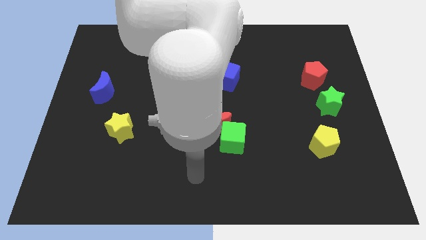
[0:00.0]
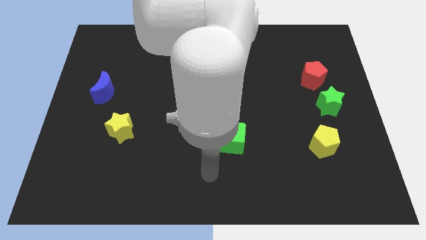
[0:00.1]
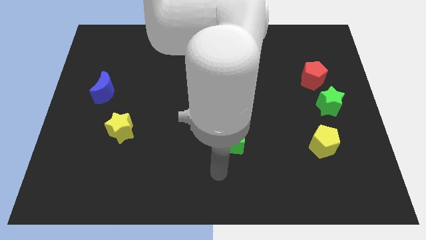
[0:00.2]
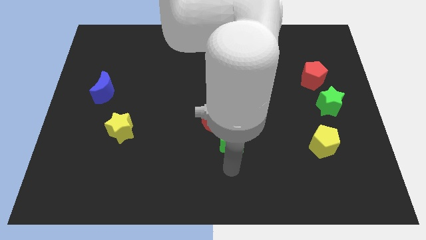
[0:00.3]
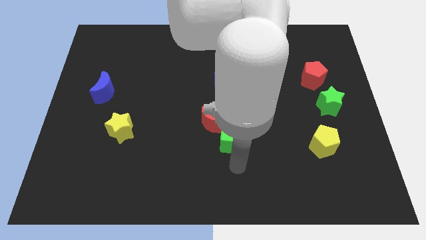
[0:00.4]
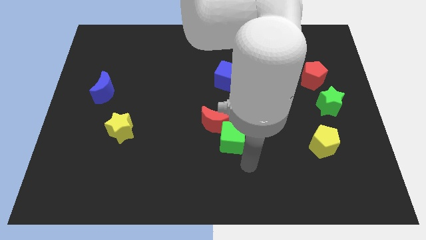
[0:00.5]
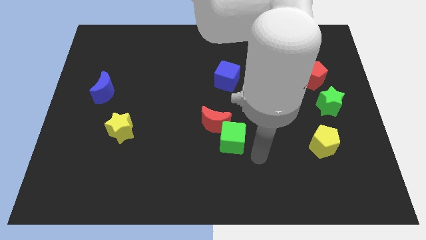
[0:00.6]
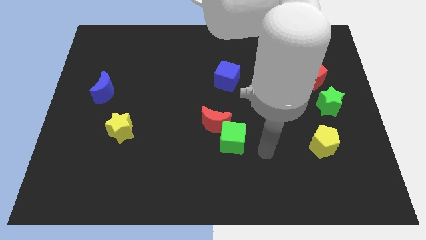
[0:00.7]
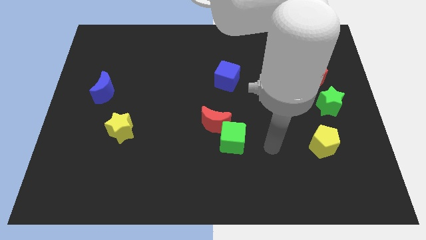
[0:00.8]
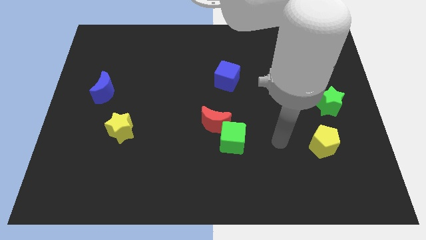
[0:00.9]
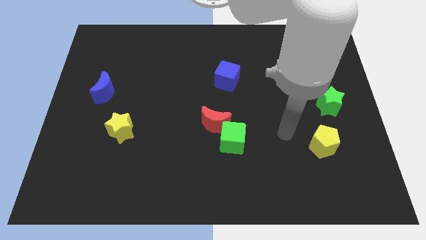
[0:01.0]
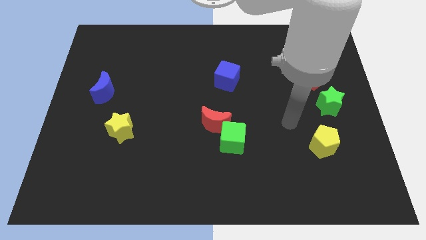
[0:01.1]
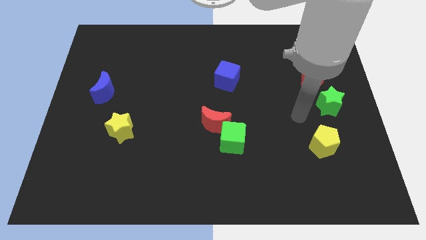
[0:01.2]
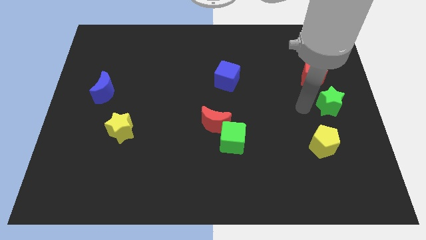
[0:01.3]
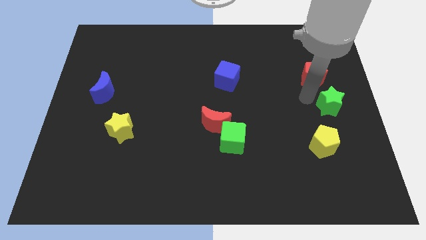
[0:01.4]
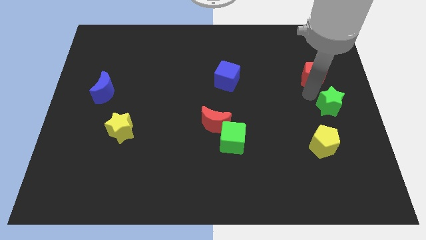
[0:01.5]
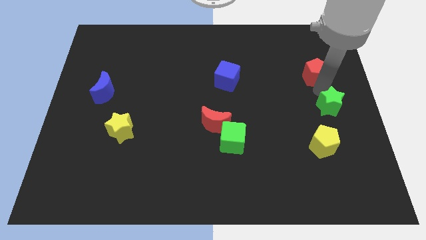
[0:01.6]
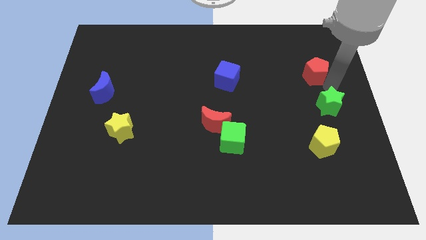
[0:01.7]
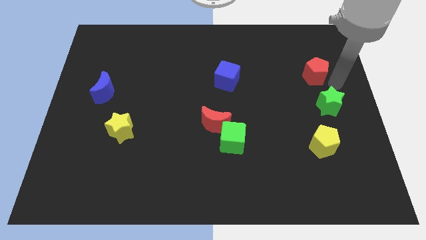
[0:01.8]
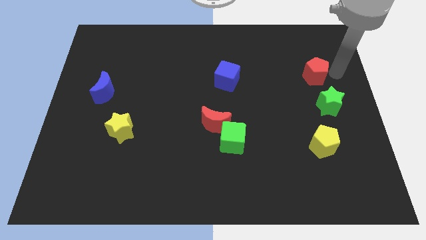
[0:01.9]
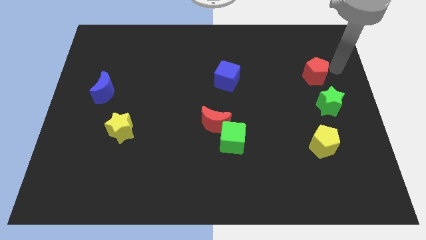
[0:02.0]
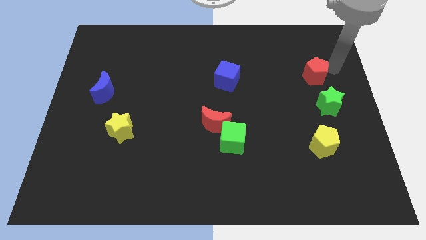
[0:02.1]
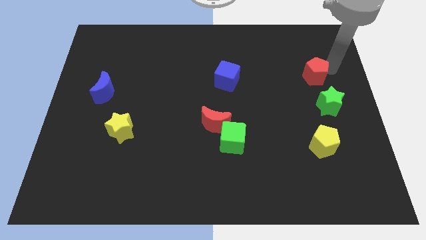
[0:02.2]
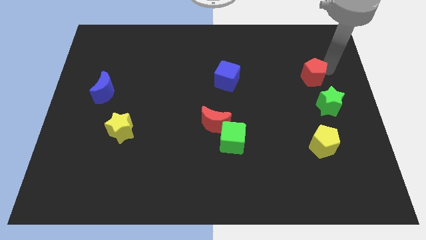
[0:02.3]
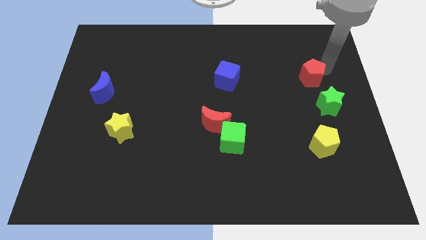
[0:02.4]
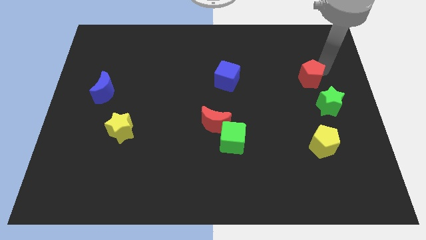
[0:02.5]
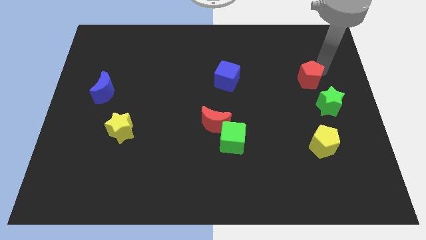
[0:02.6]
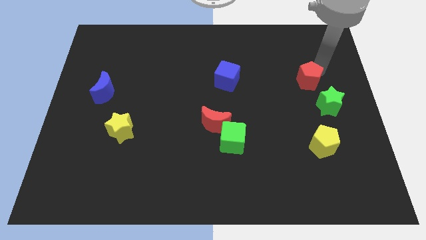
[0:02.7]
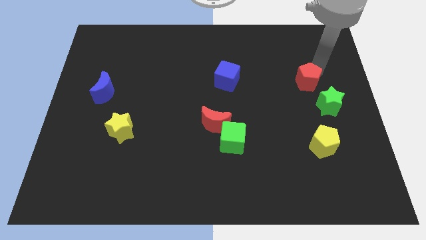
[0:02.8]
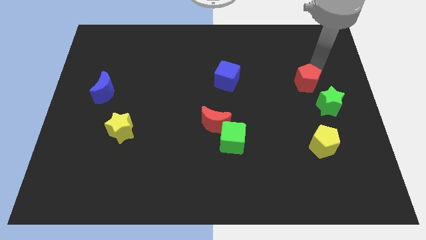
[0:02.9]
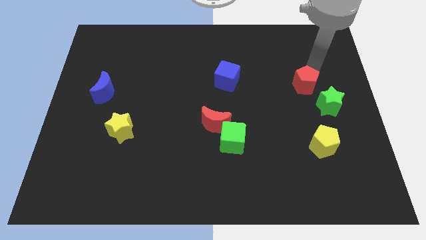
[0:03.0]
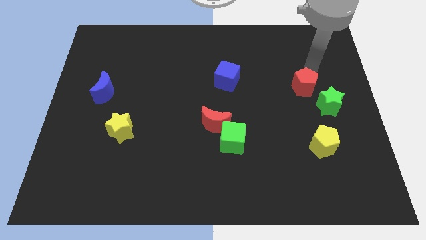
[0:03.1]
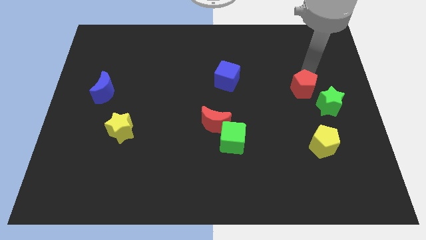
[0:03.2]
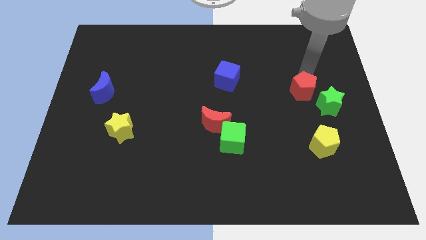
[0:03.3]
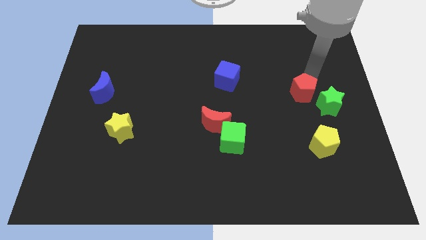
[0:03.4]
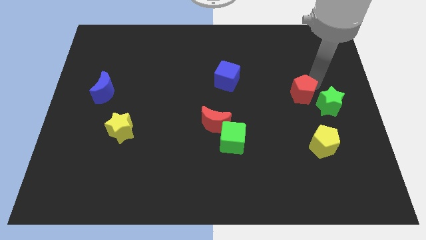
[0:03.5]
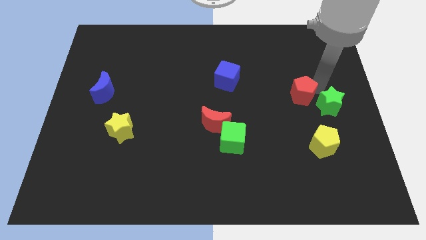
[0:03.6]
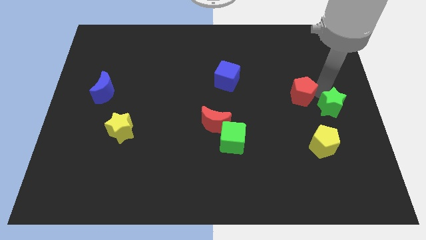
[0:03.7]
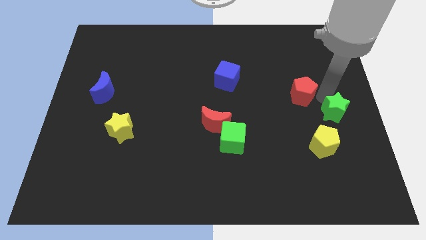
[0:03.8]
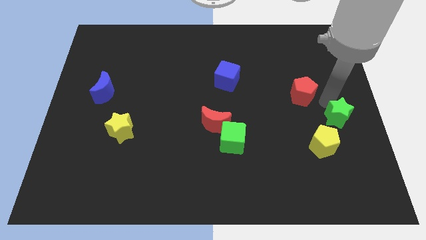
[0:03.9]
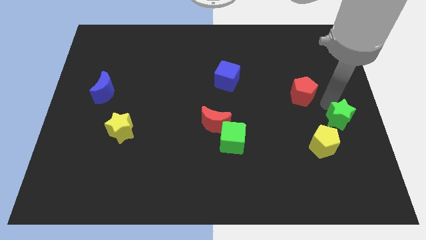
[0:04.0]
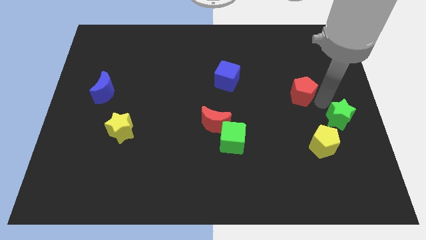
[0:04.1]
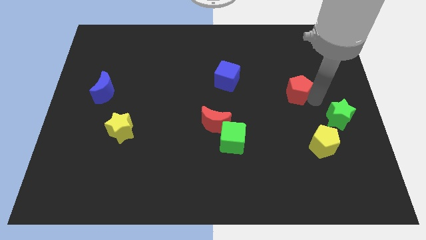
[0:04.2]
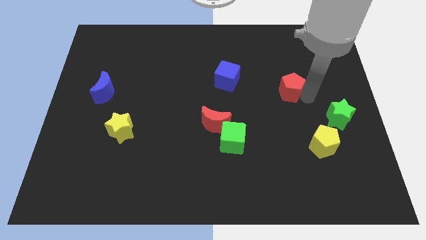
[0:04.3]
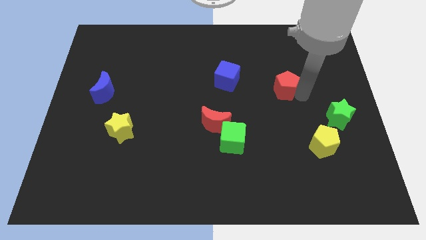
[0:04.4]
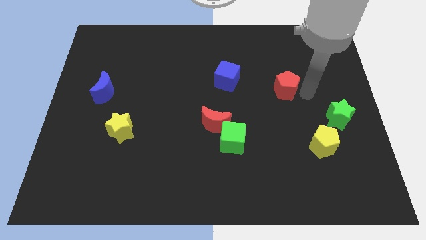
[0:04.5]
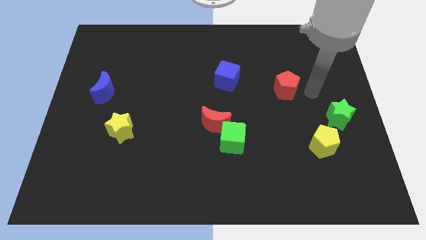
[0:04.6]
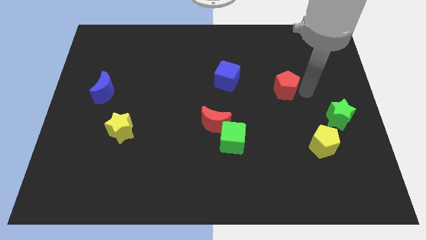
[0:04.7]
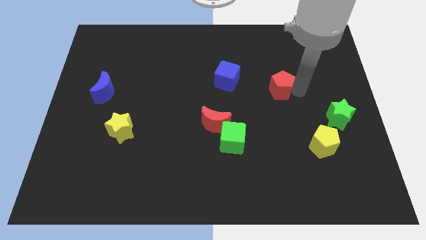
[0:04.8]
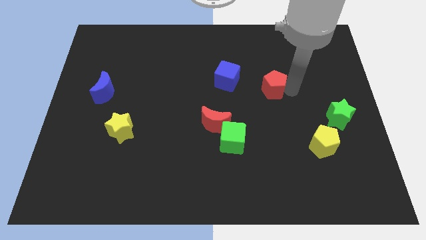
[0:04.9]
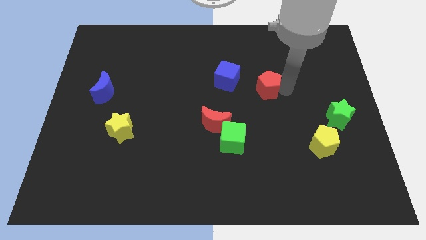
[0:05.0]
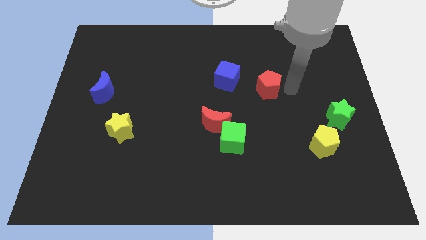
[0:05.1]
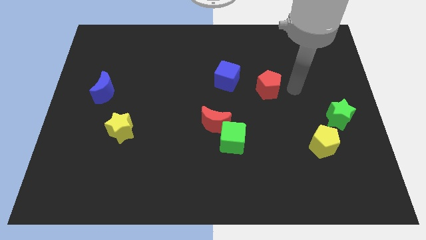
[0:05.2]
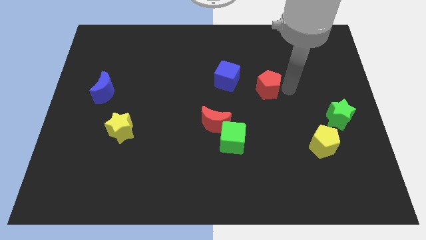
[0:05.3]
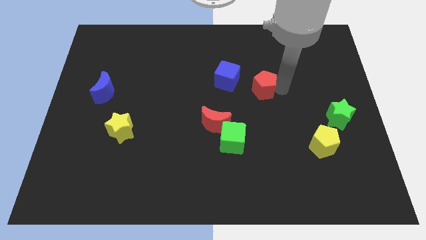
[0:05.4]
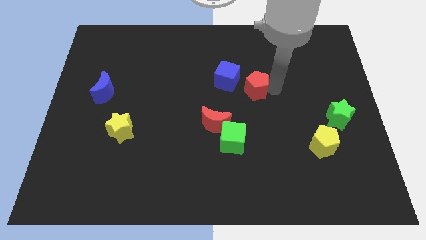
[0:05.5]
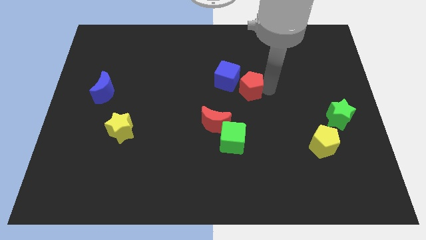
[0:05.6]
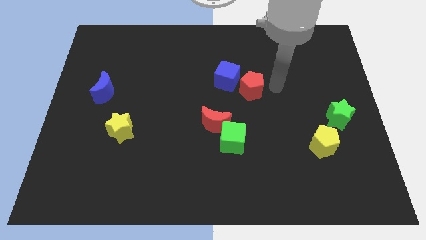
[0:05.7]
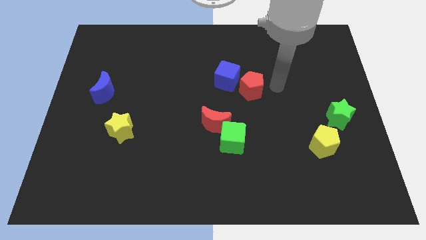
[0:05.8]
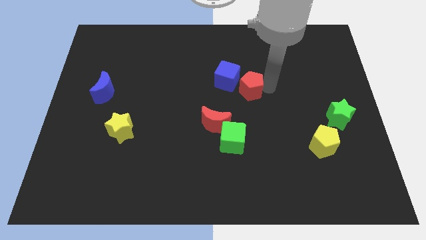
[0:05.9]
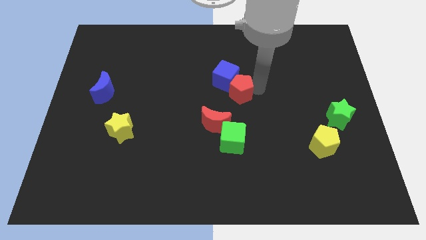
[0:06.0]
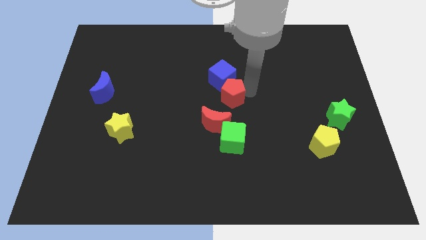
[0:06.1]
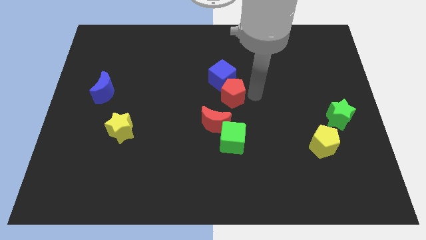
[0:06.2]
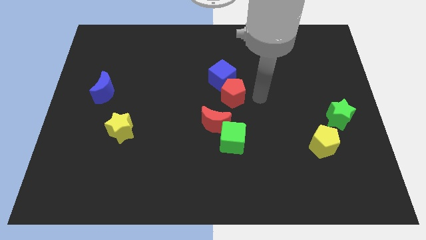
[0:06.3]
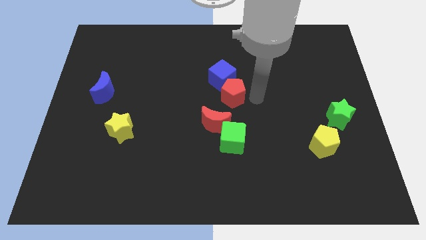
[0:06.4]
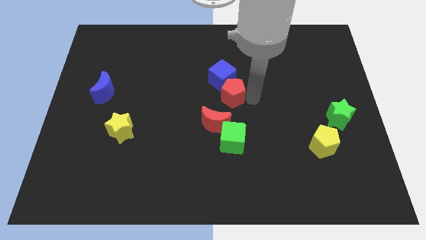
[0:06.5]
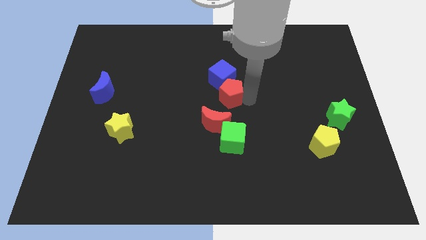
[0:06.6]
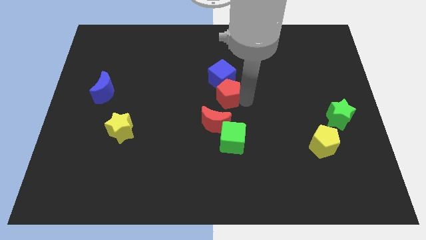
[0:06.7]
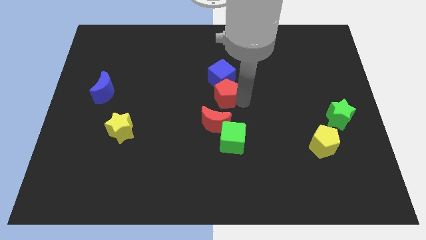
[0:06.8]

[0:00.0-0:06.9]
slide the red pentagon to the bottom left of the blue cube

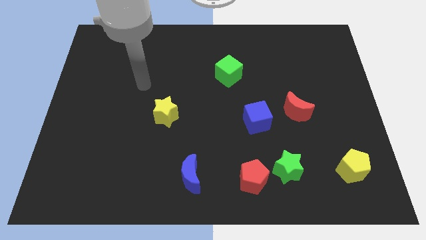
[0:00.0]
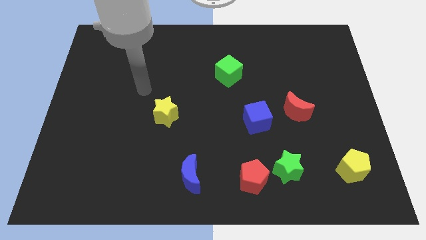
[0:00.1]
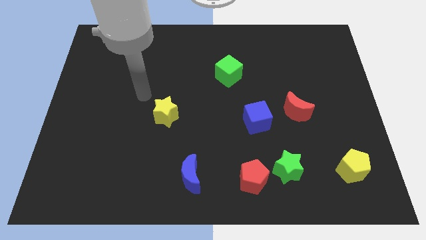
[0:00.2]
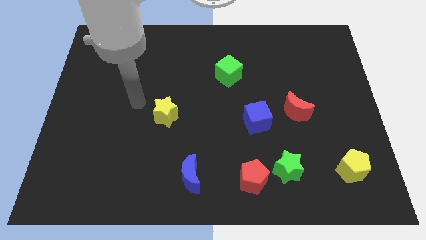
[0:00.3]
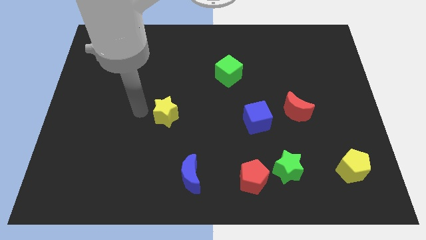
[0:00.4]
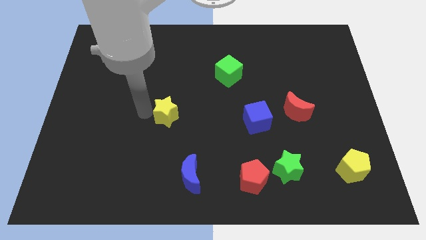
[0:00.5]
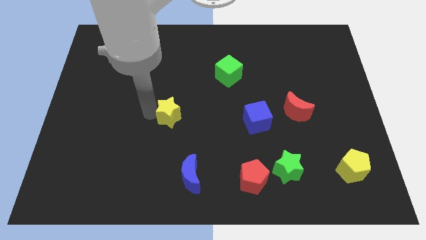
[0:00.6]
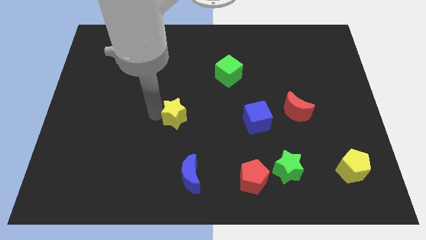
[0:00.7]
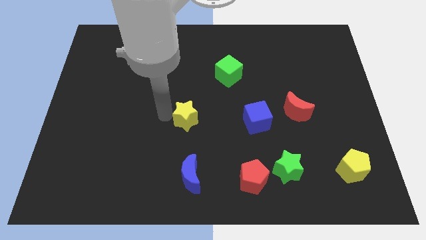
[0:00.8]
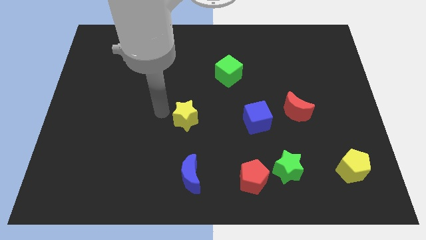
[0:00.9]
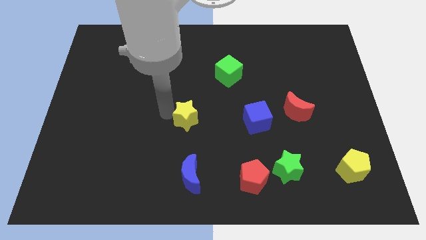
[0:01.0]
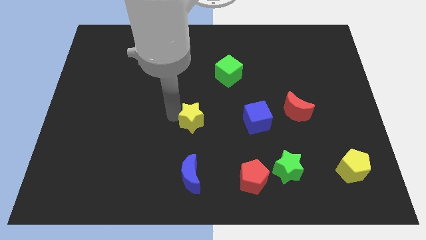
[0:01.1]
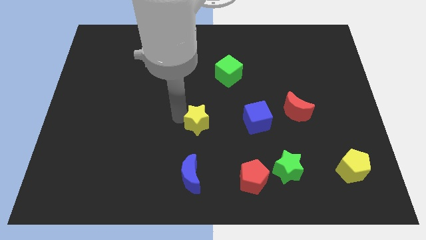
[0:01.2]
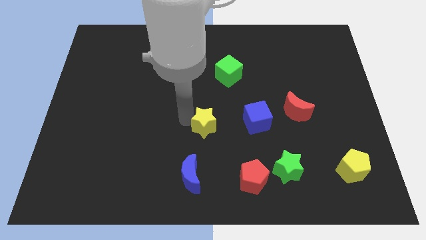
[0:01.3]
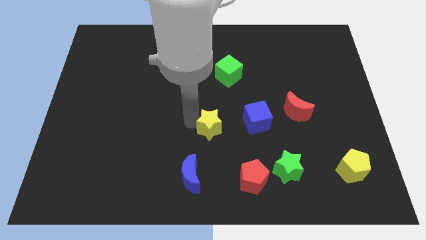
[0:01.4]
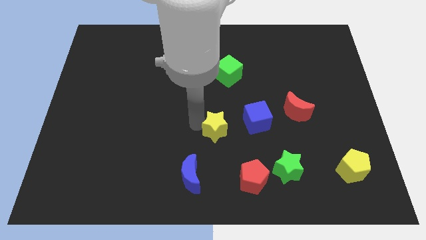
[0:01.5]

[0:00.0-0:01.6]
move the yellow star diagonally down and to the left of the blue cube
